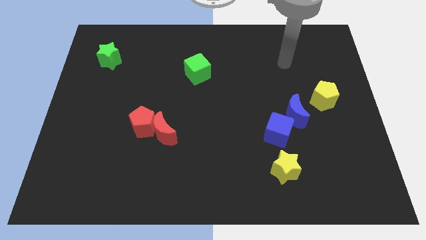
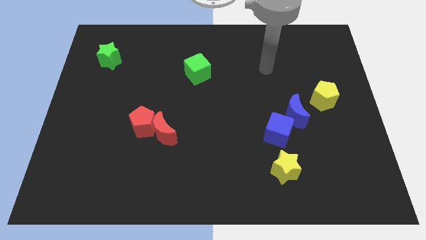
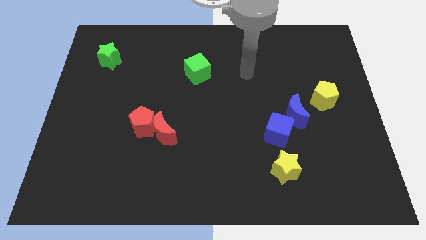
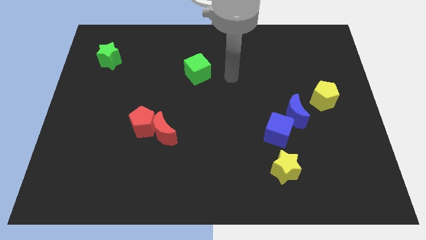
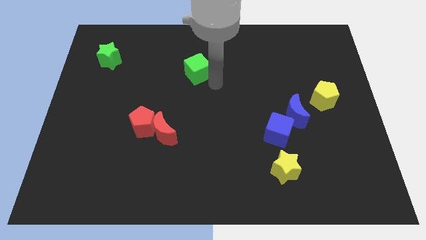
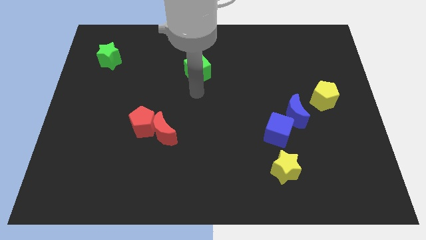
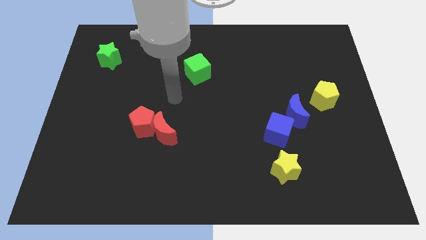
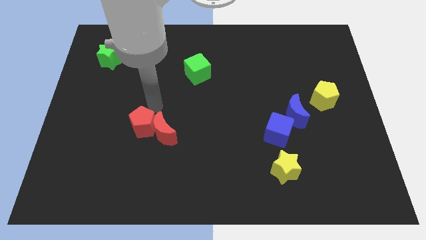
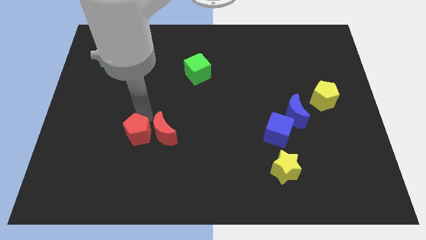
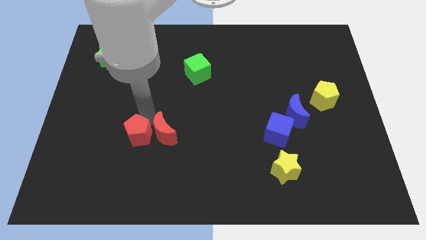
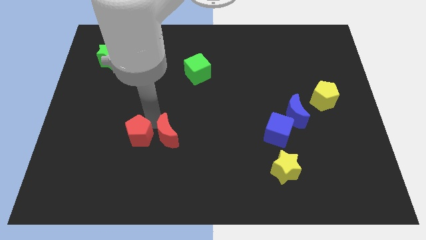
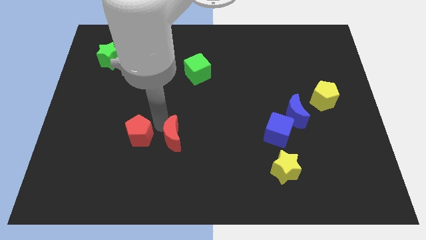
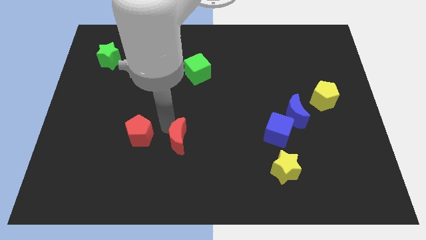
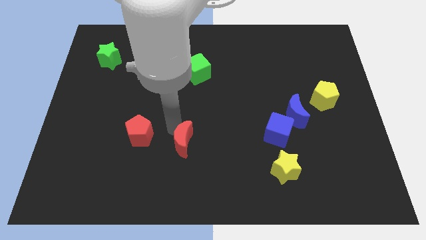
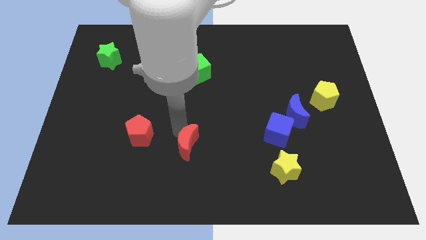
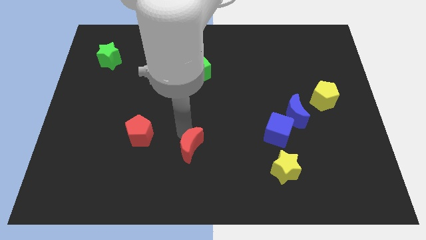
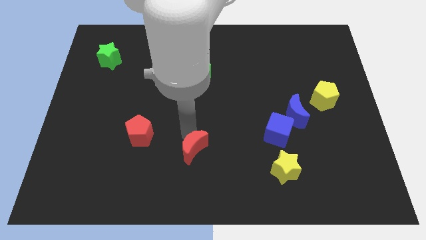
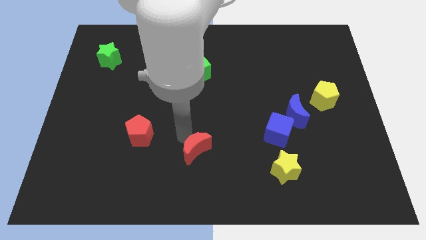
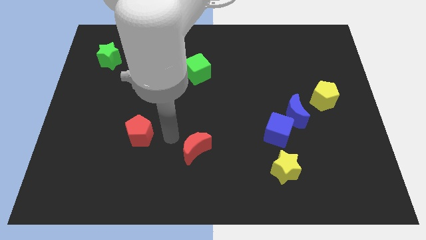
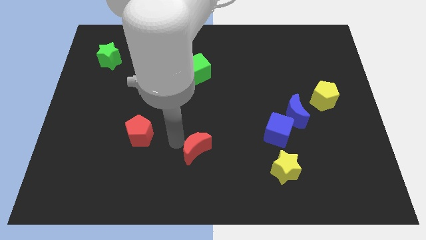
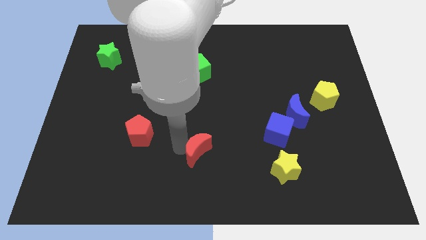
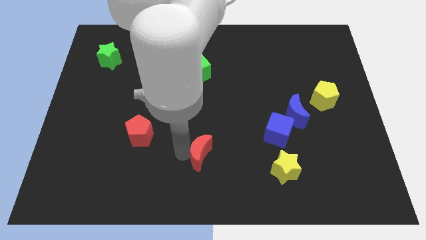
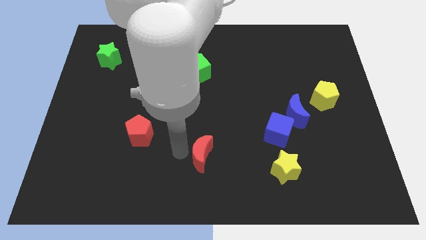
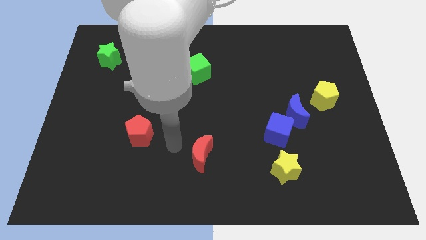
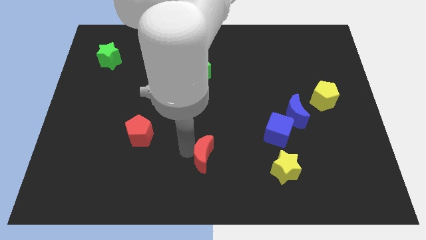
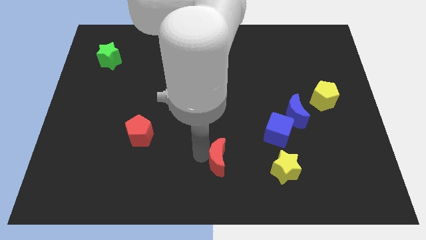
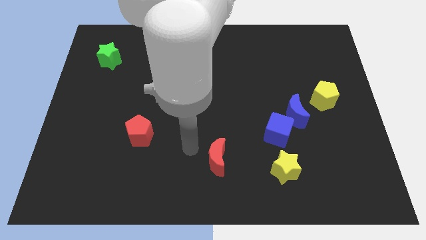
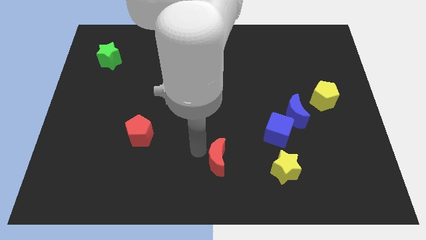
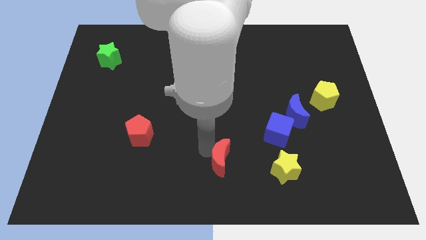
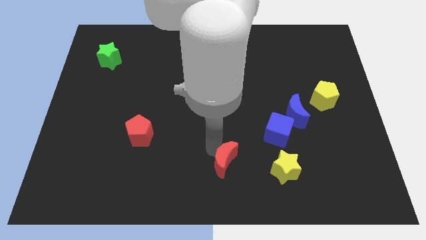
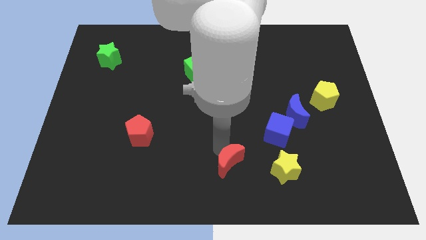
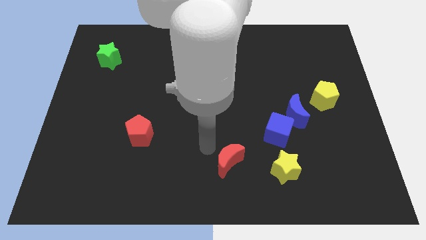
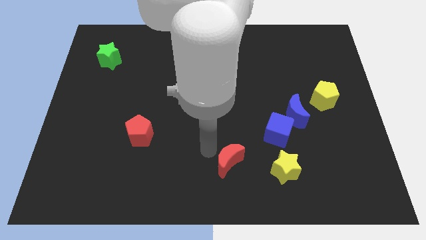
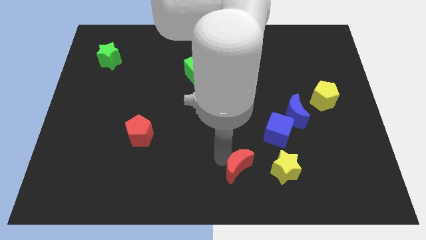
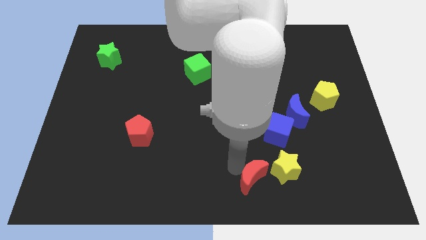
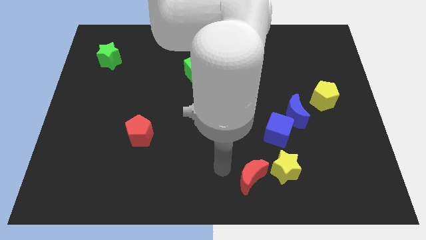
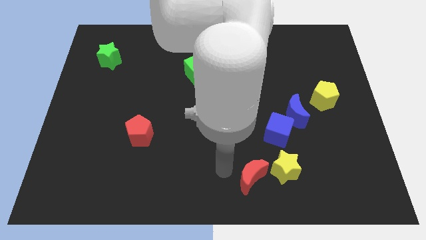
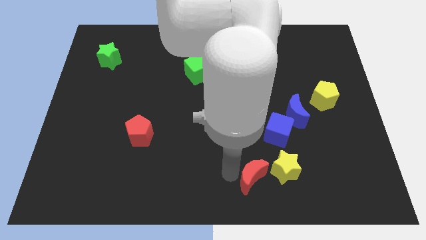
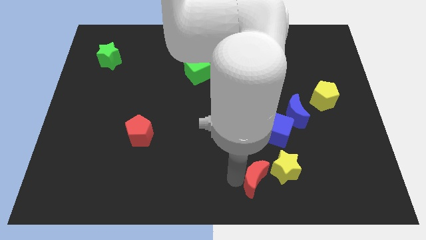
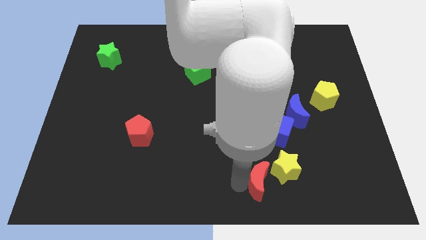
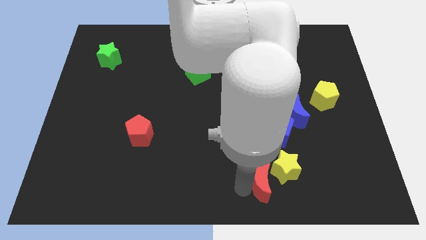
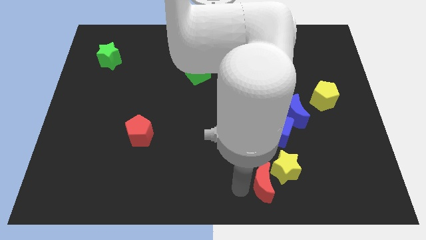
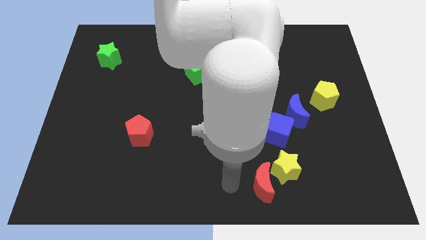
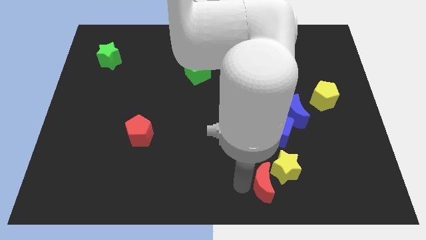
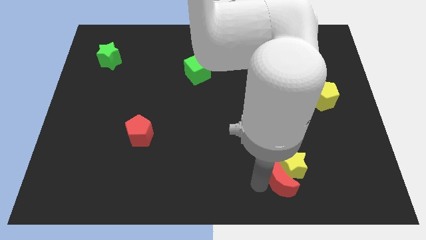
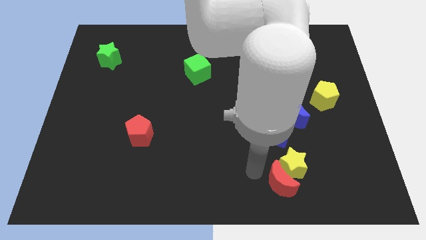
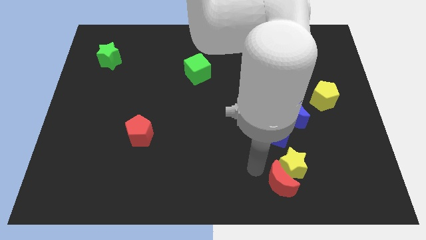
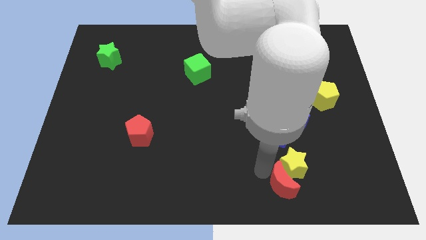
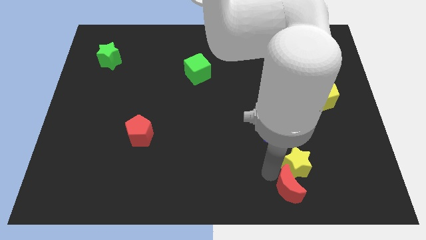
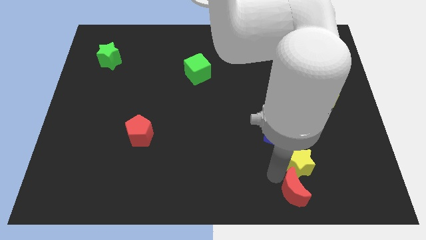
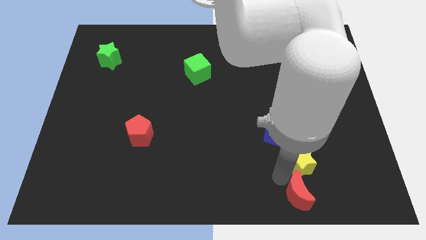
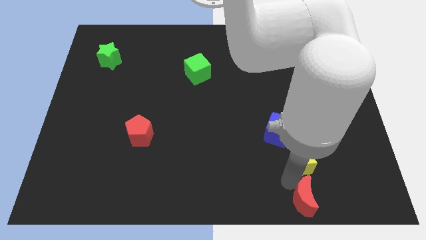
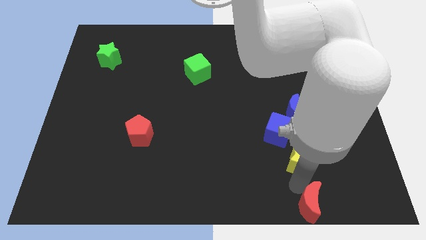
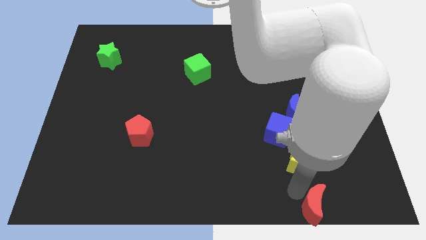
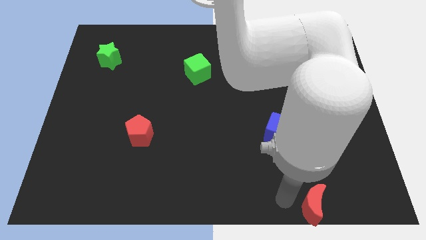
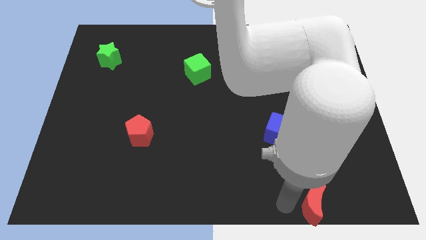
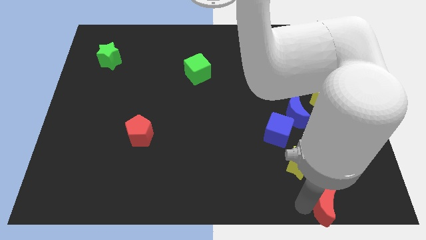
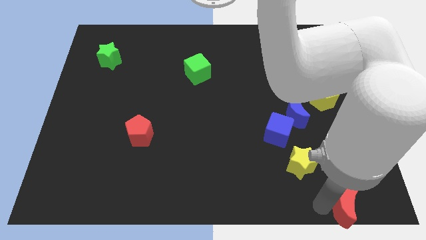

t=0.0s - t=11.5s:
move the red moon to the lower right corner
